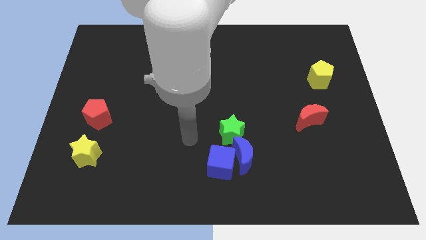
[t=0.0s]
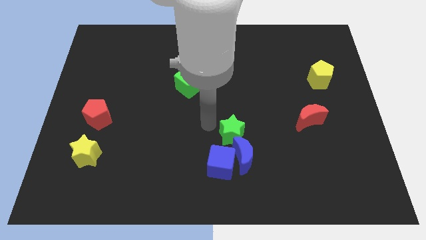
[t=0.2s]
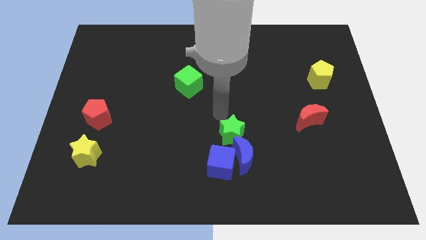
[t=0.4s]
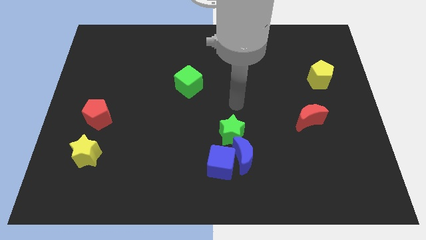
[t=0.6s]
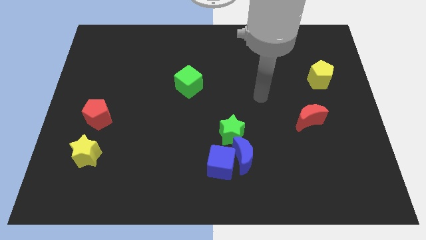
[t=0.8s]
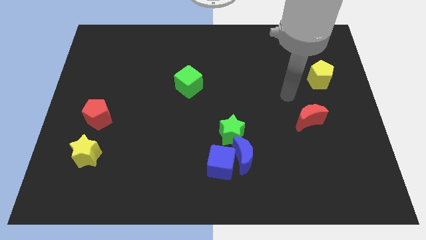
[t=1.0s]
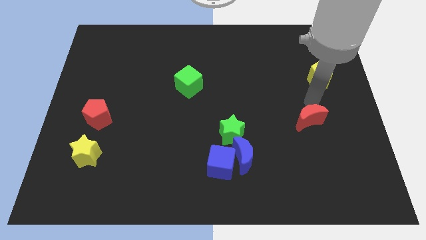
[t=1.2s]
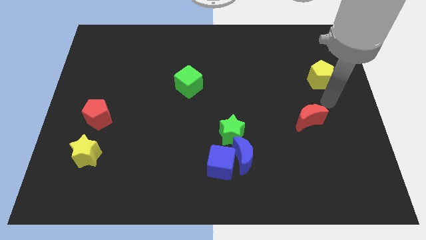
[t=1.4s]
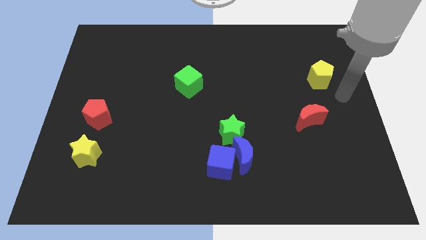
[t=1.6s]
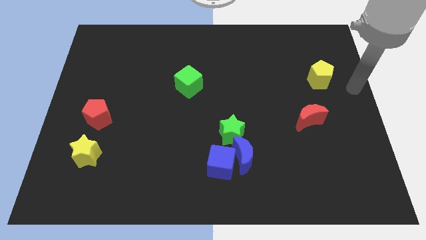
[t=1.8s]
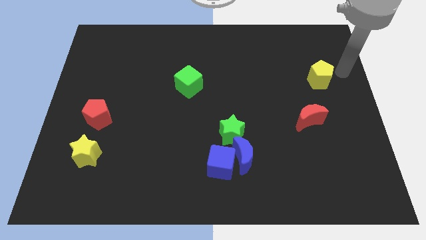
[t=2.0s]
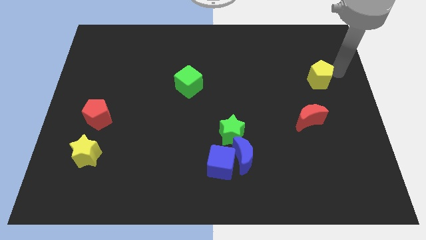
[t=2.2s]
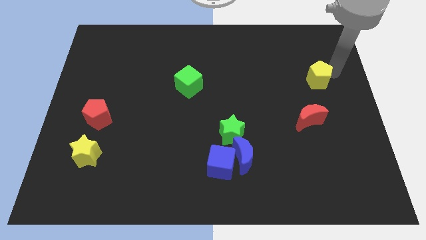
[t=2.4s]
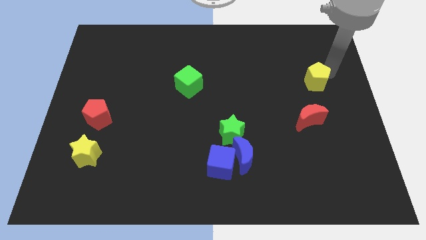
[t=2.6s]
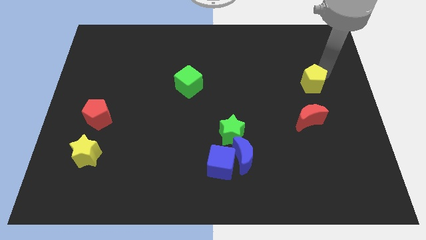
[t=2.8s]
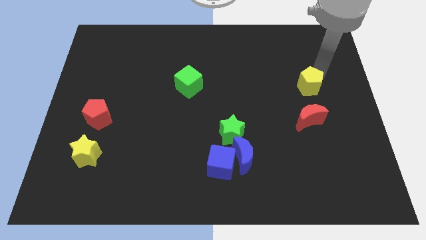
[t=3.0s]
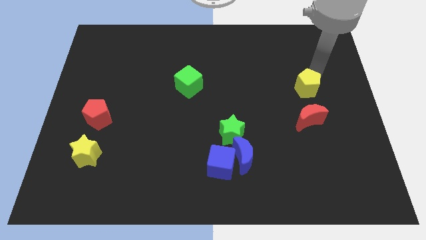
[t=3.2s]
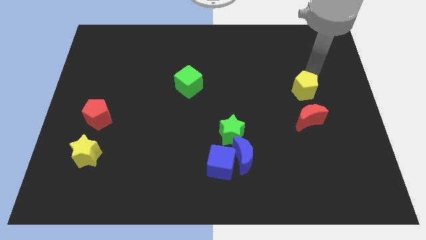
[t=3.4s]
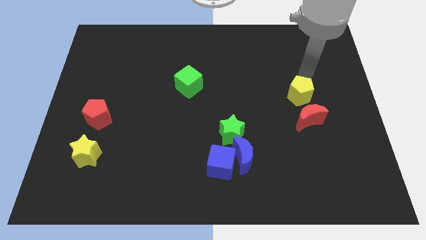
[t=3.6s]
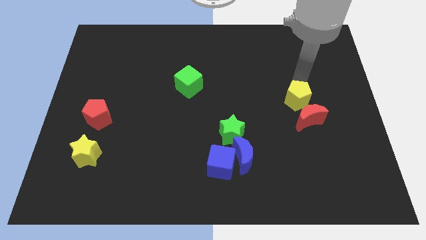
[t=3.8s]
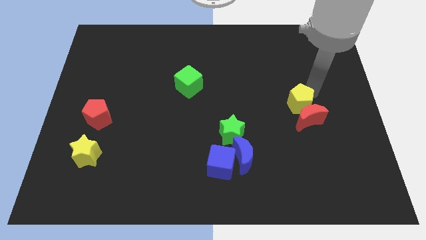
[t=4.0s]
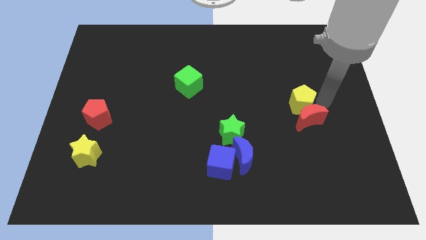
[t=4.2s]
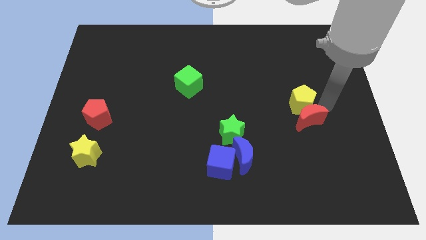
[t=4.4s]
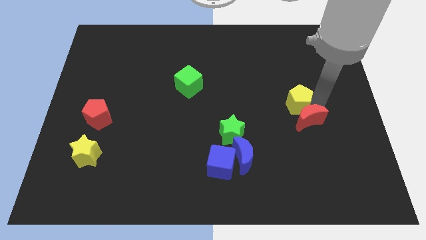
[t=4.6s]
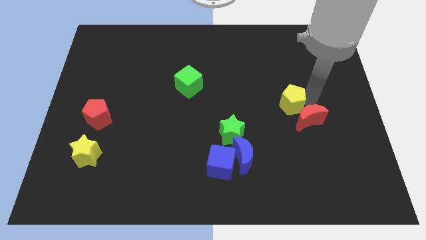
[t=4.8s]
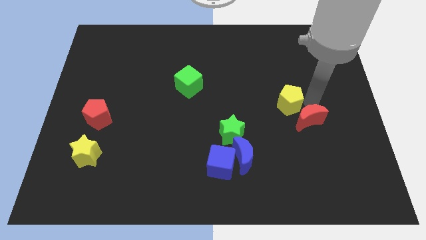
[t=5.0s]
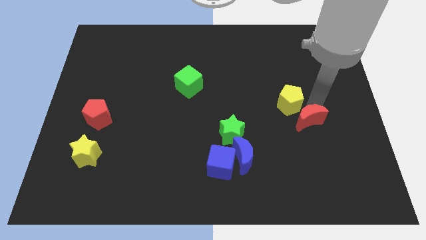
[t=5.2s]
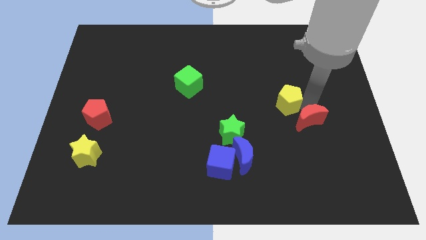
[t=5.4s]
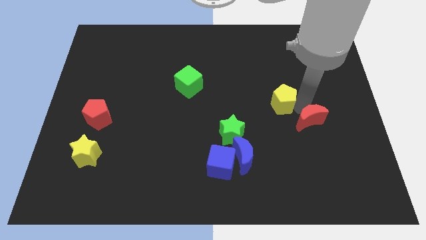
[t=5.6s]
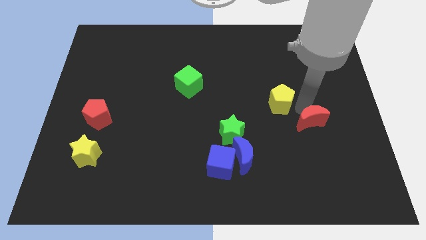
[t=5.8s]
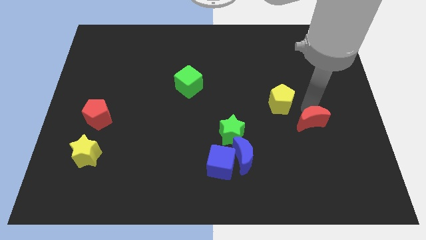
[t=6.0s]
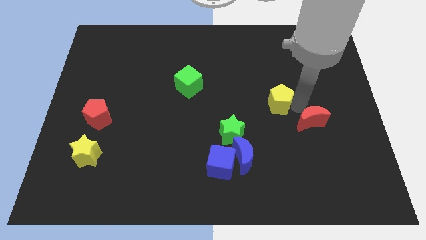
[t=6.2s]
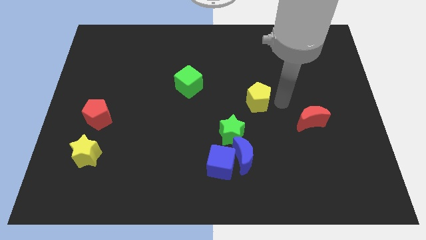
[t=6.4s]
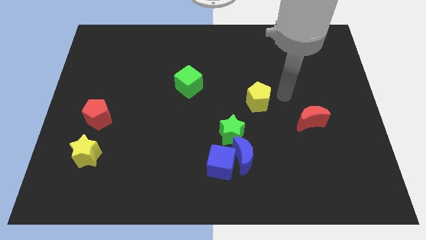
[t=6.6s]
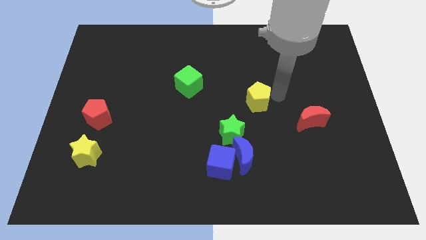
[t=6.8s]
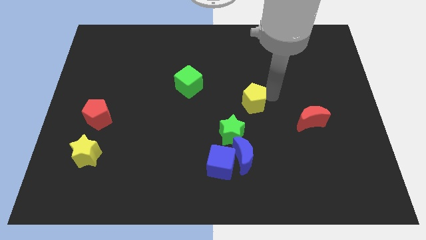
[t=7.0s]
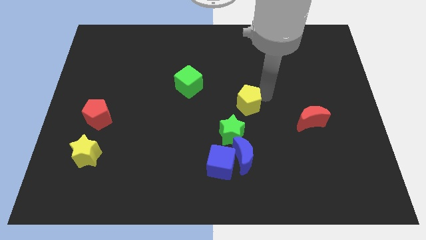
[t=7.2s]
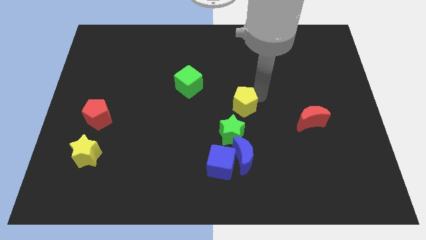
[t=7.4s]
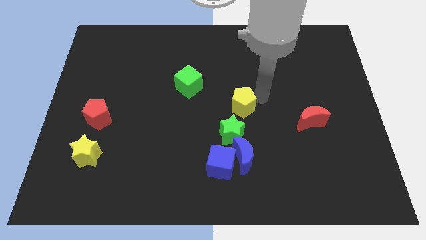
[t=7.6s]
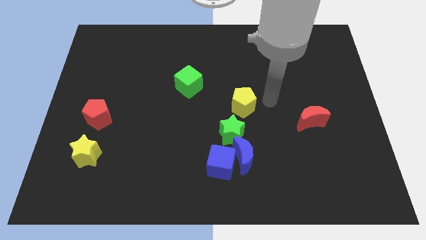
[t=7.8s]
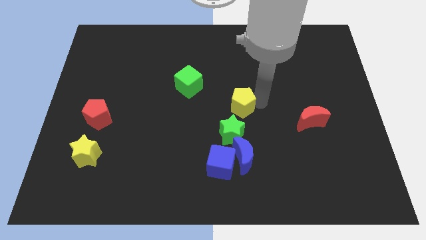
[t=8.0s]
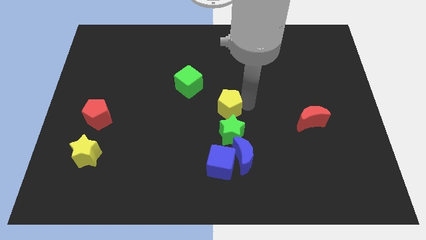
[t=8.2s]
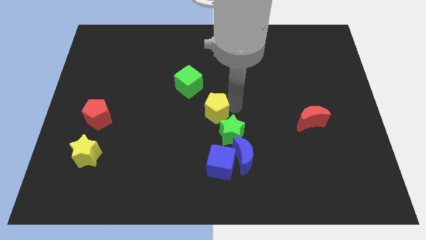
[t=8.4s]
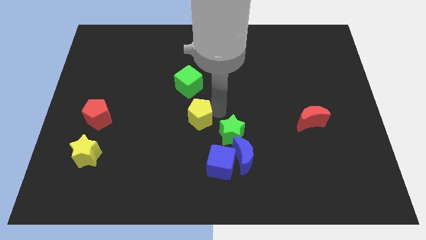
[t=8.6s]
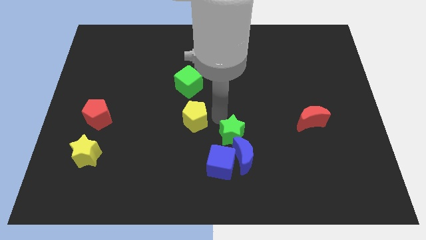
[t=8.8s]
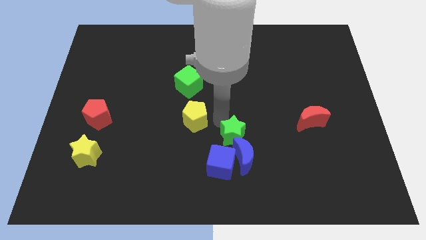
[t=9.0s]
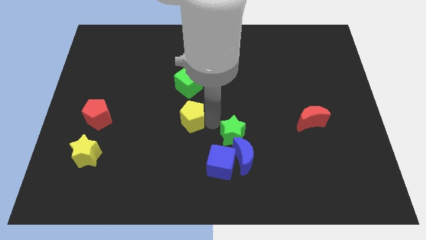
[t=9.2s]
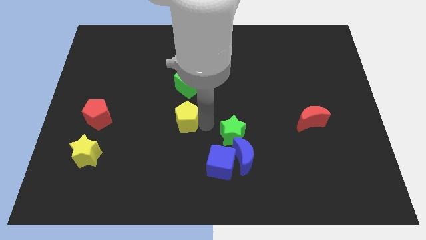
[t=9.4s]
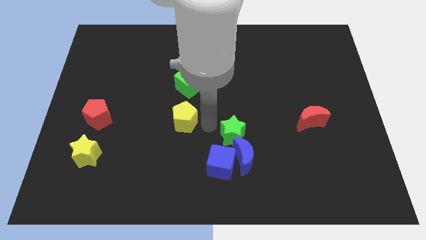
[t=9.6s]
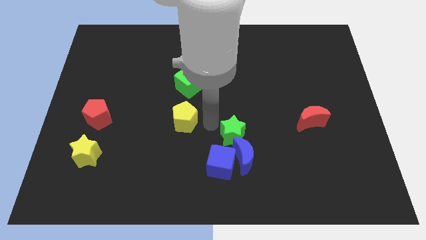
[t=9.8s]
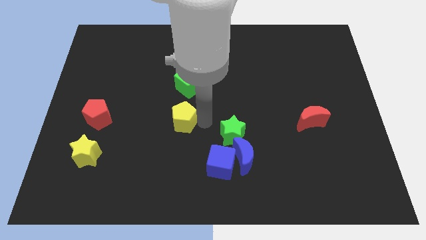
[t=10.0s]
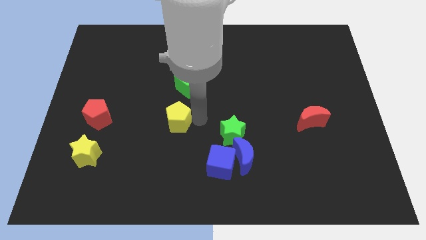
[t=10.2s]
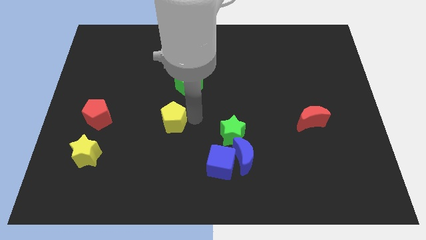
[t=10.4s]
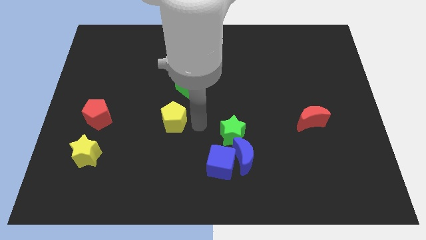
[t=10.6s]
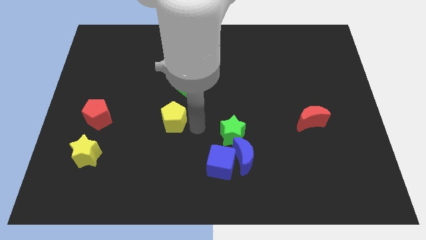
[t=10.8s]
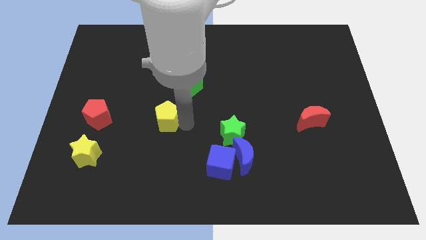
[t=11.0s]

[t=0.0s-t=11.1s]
put the yellow pentagon just right of the red pentagon

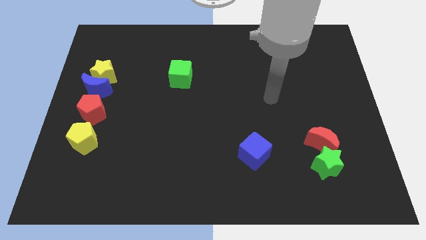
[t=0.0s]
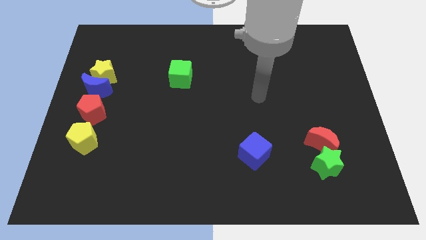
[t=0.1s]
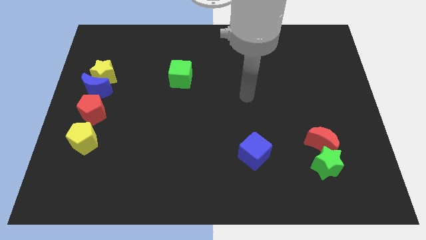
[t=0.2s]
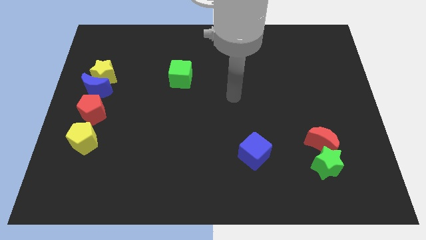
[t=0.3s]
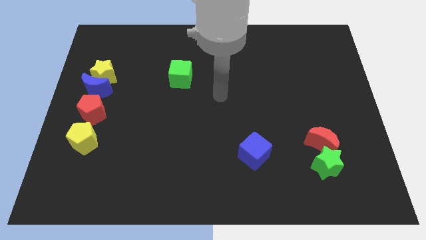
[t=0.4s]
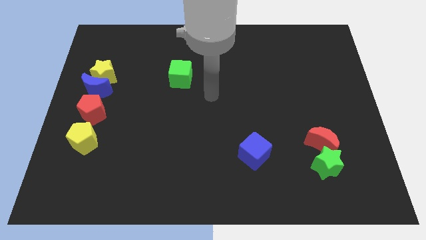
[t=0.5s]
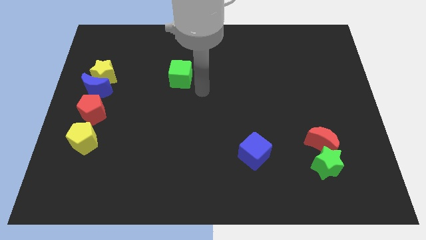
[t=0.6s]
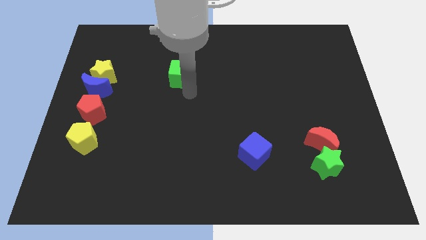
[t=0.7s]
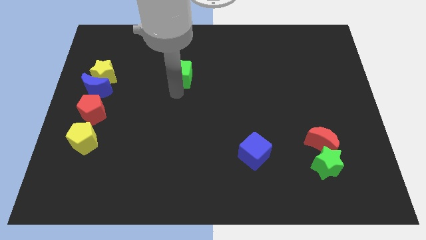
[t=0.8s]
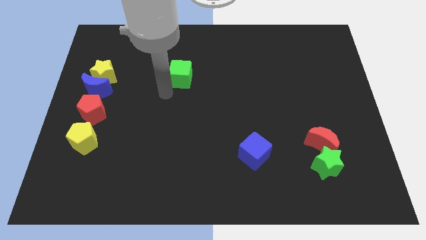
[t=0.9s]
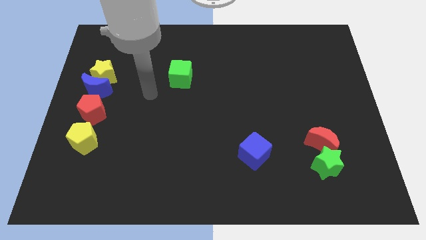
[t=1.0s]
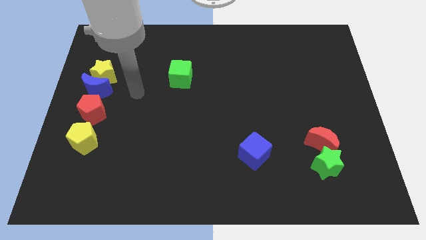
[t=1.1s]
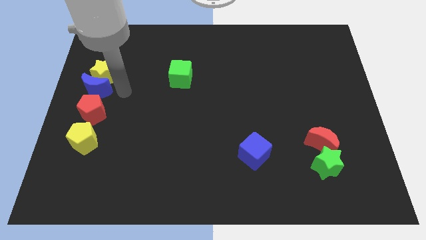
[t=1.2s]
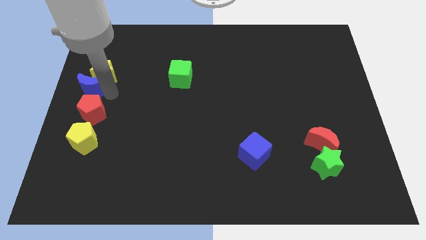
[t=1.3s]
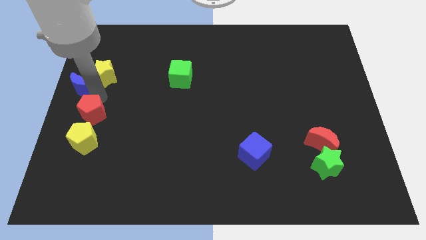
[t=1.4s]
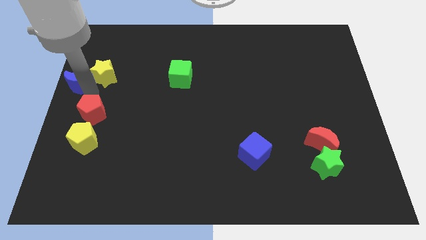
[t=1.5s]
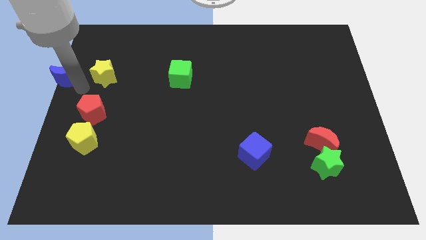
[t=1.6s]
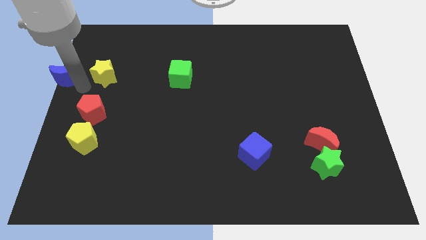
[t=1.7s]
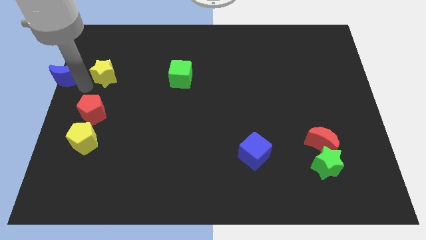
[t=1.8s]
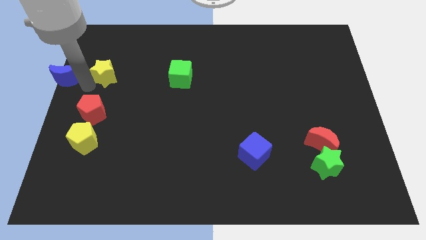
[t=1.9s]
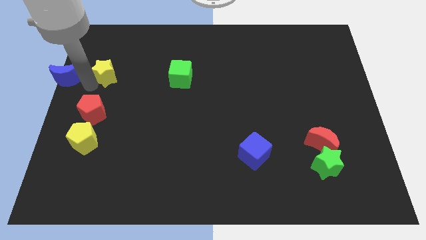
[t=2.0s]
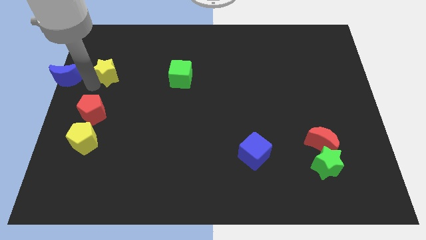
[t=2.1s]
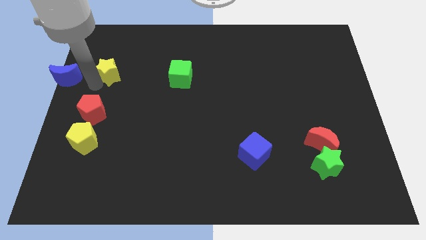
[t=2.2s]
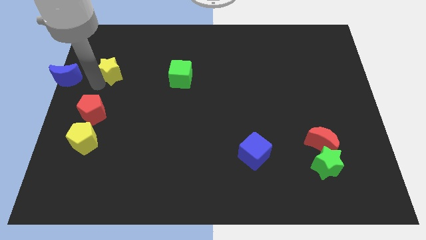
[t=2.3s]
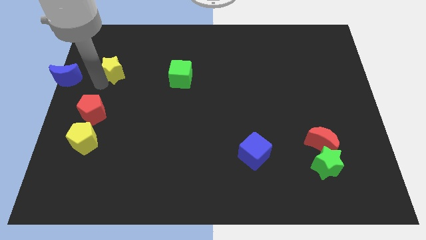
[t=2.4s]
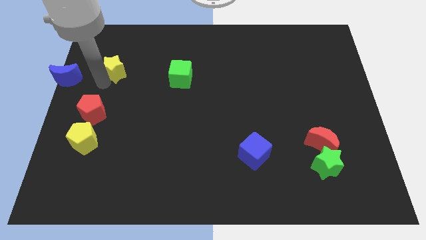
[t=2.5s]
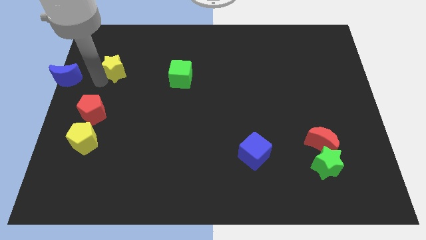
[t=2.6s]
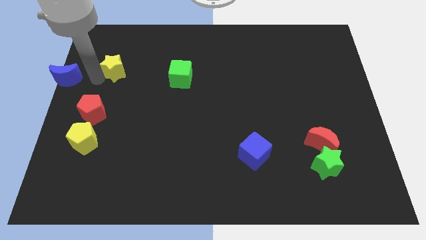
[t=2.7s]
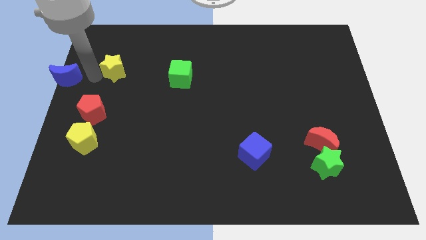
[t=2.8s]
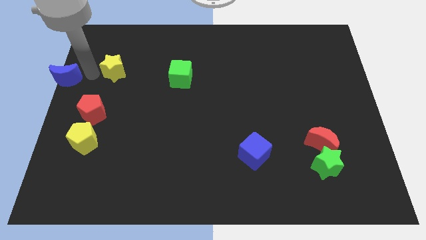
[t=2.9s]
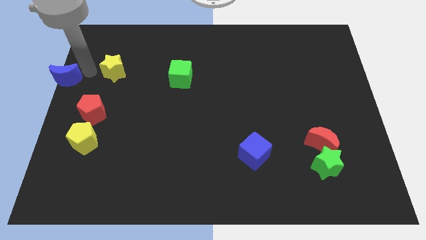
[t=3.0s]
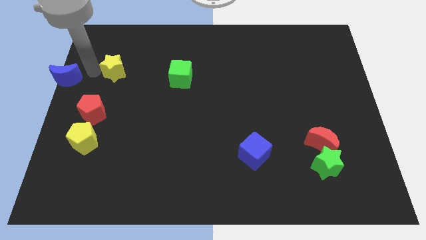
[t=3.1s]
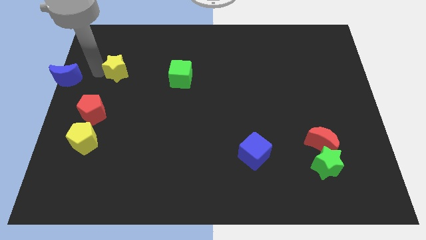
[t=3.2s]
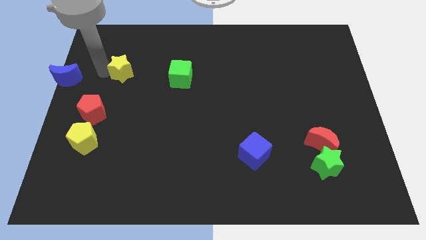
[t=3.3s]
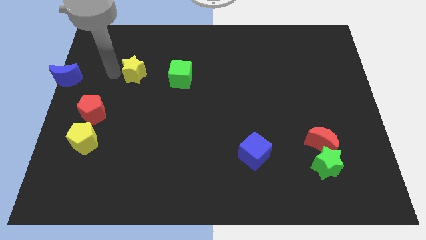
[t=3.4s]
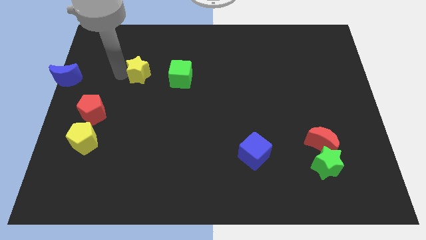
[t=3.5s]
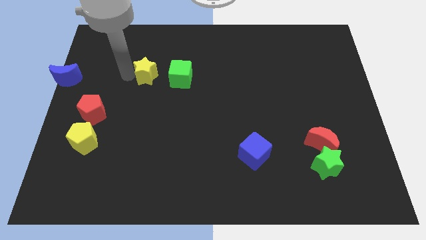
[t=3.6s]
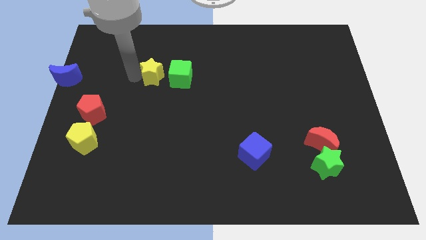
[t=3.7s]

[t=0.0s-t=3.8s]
push the yellow star to the top left of the green cube
